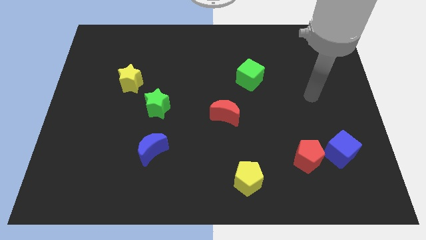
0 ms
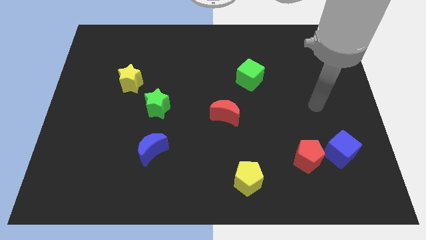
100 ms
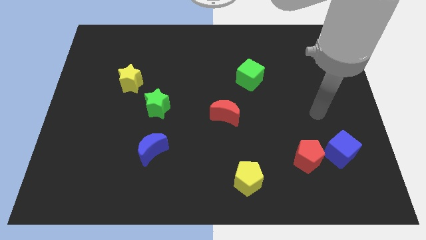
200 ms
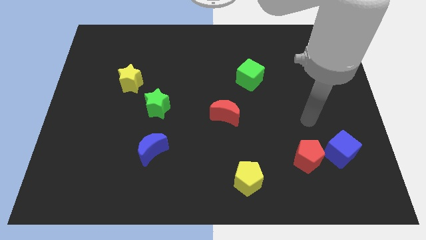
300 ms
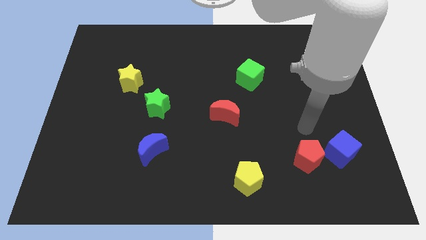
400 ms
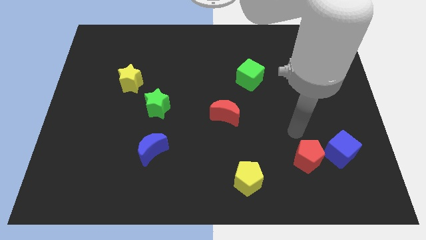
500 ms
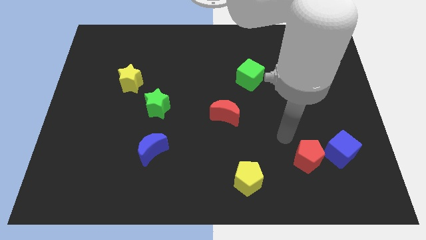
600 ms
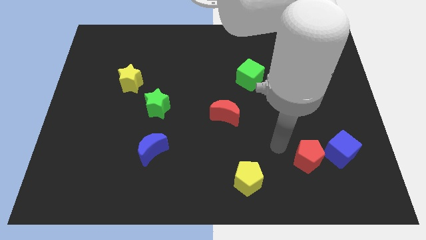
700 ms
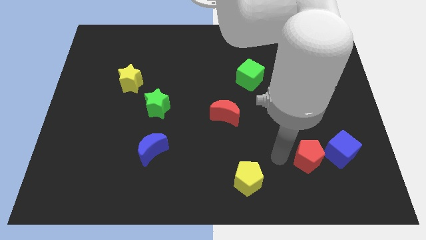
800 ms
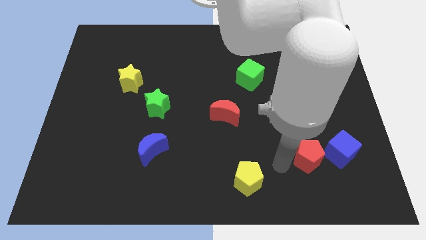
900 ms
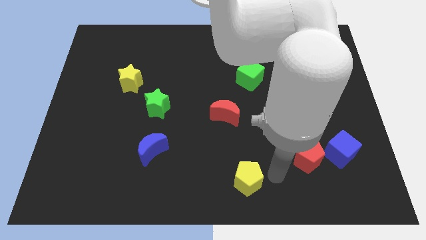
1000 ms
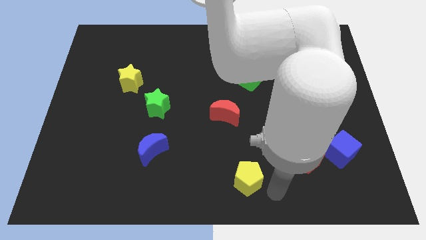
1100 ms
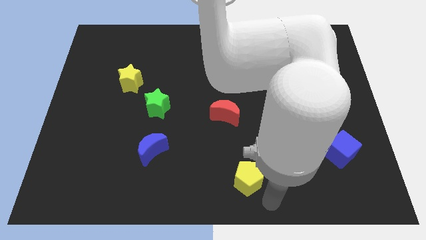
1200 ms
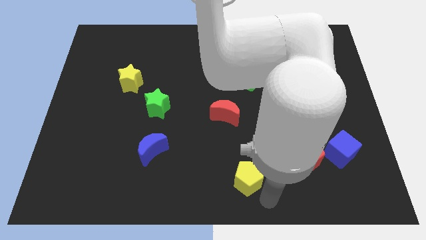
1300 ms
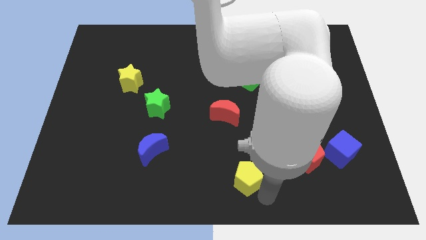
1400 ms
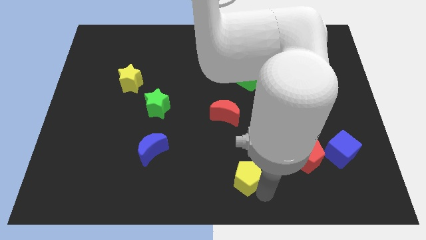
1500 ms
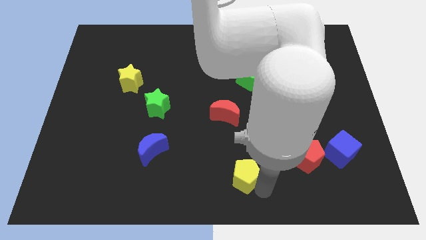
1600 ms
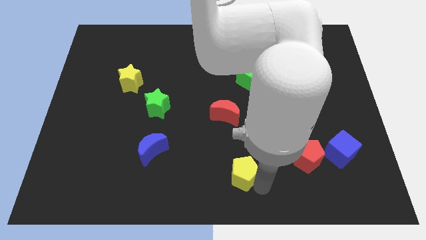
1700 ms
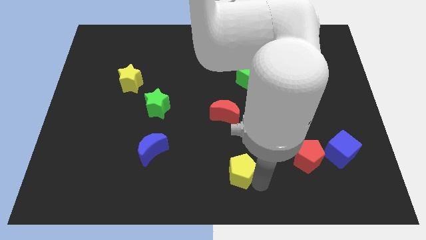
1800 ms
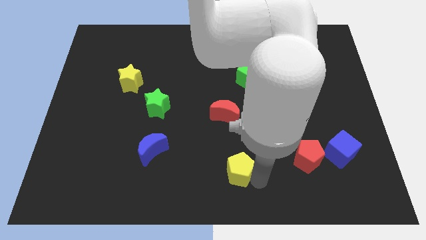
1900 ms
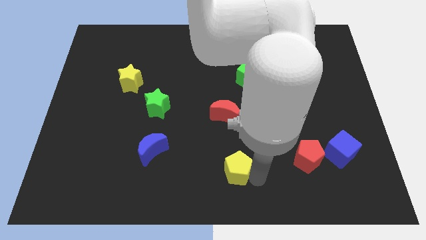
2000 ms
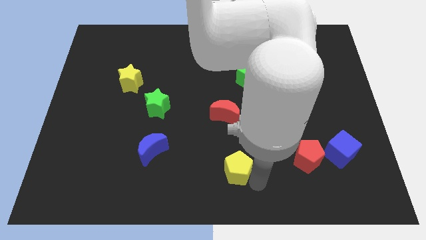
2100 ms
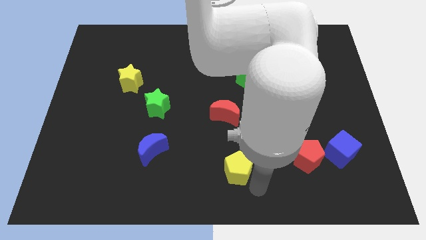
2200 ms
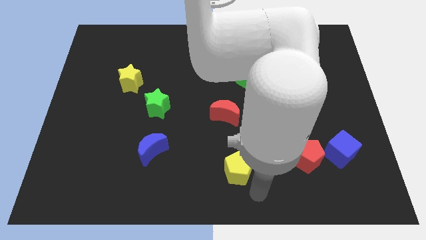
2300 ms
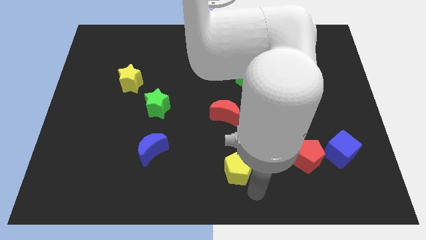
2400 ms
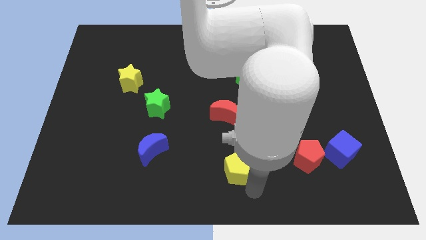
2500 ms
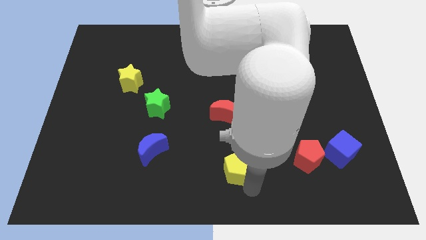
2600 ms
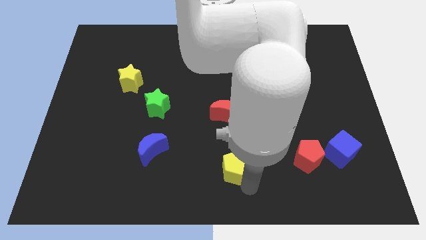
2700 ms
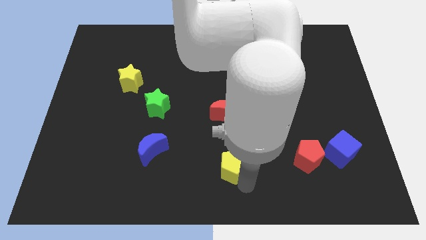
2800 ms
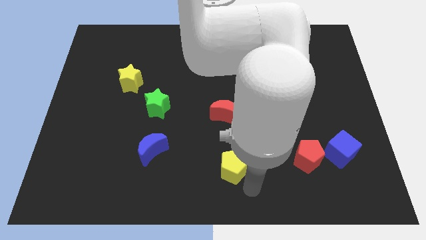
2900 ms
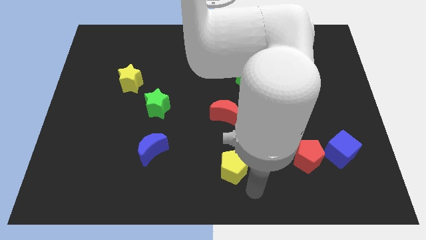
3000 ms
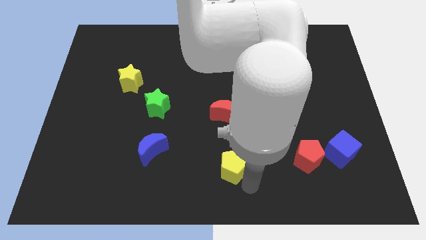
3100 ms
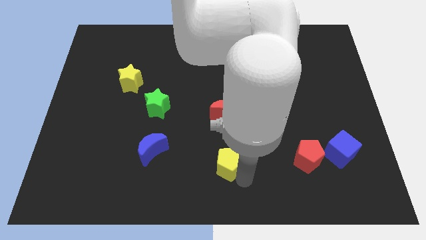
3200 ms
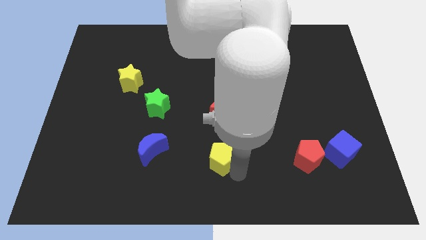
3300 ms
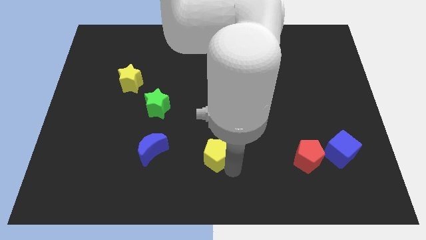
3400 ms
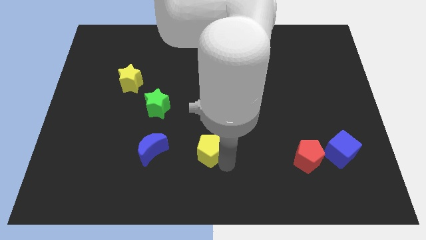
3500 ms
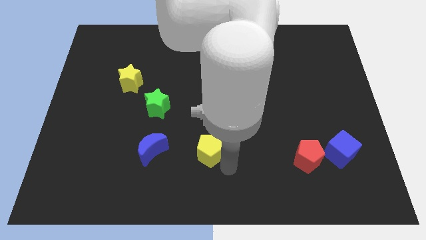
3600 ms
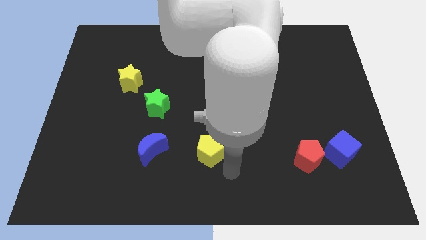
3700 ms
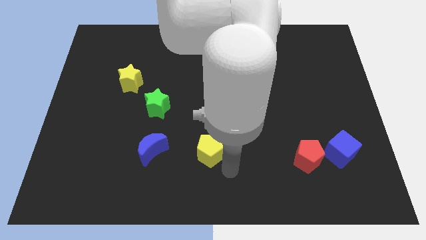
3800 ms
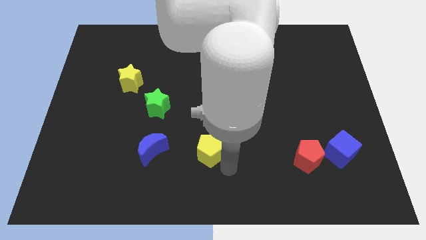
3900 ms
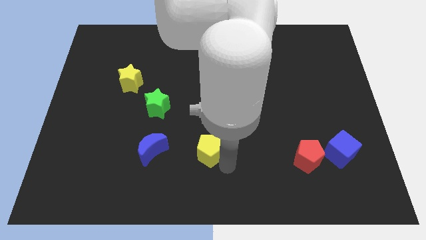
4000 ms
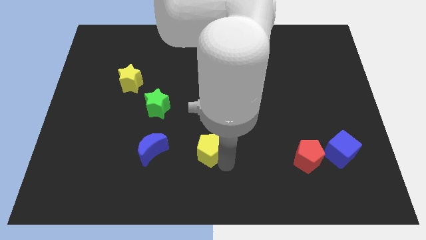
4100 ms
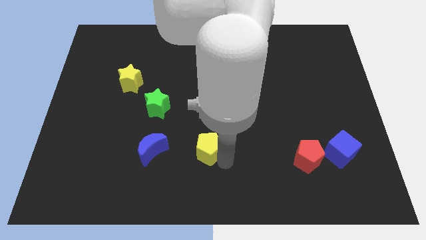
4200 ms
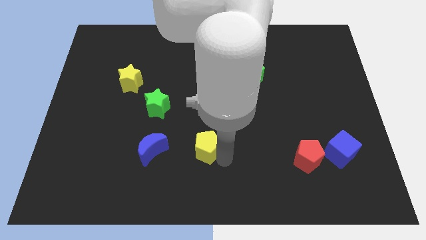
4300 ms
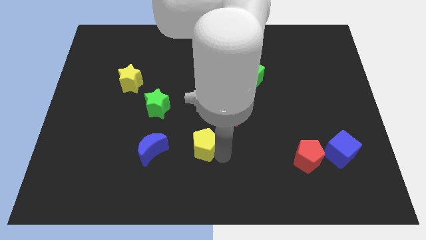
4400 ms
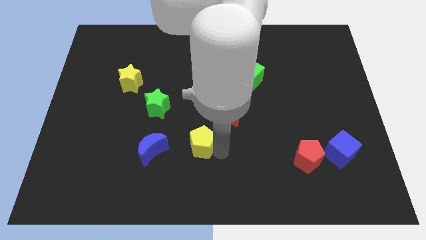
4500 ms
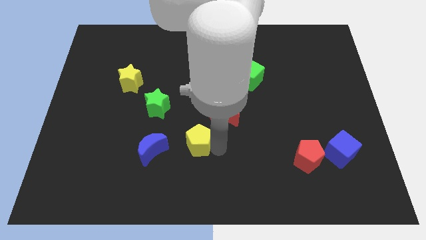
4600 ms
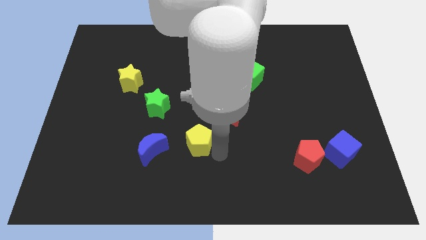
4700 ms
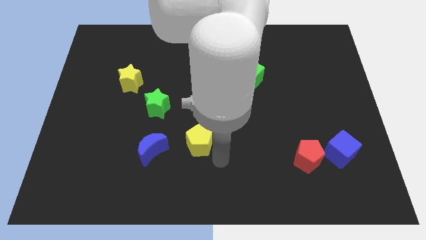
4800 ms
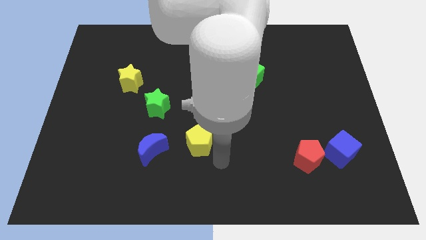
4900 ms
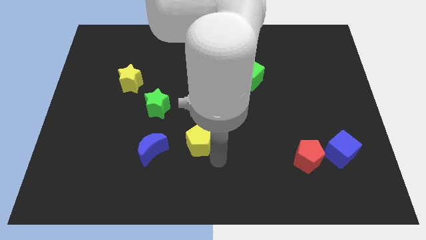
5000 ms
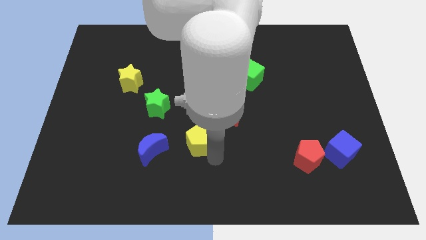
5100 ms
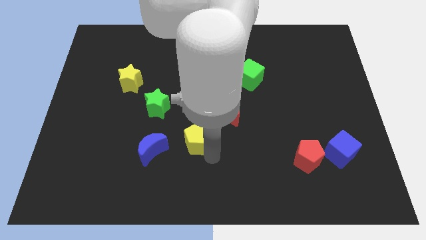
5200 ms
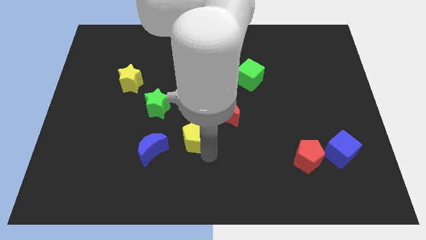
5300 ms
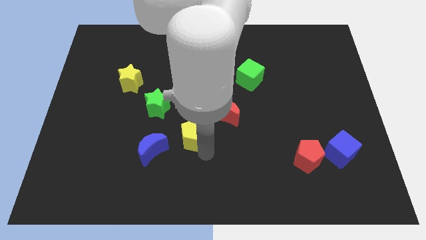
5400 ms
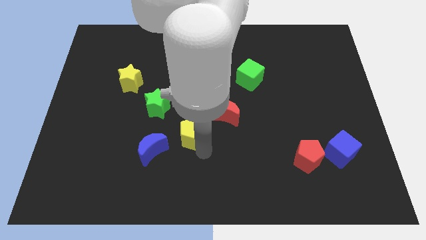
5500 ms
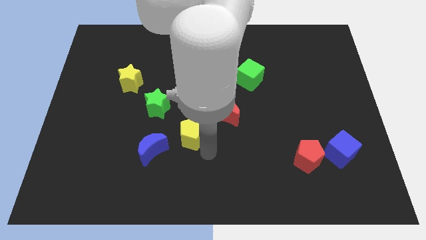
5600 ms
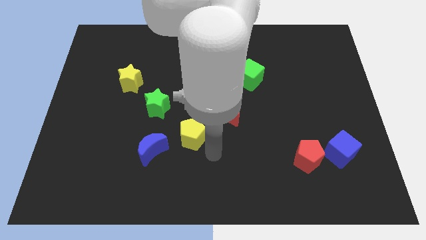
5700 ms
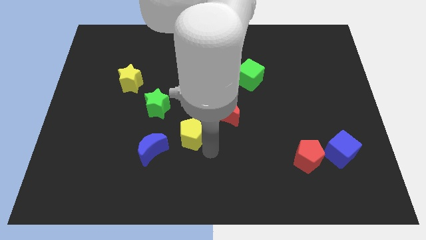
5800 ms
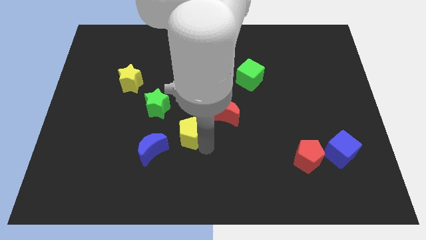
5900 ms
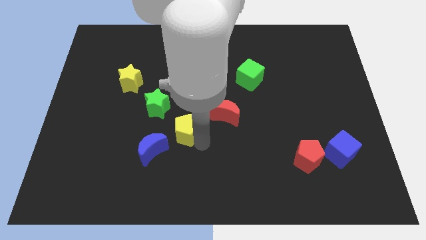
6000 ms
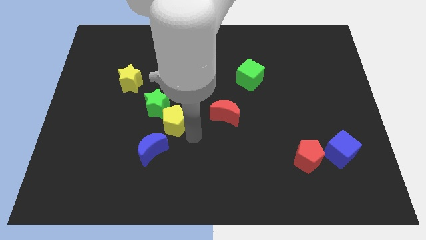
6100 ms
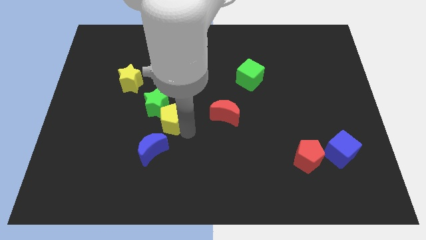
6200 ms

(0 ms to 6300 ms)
move the yellow pentagon to the green star

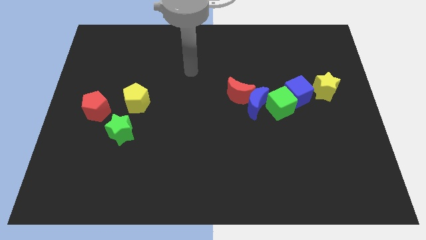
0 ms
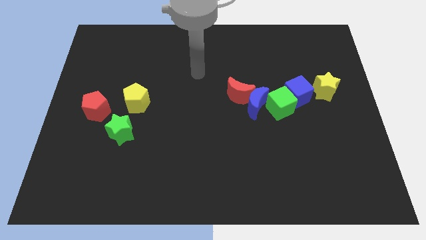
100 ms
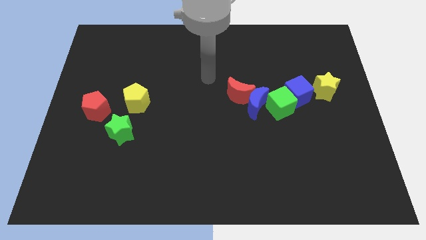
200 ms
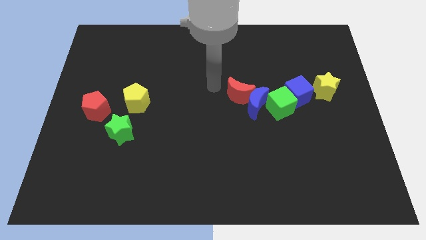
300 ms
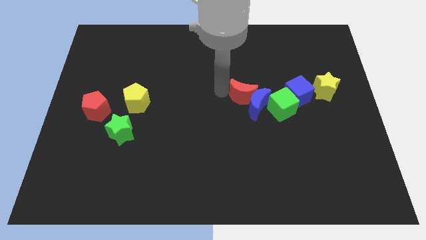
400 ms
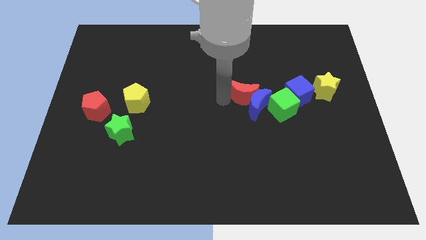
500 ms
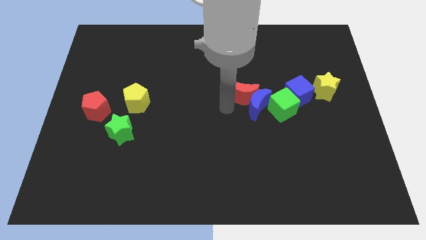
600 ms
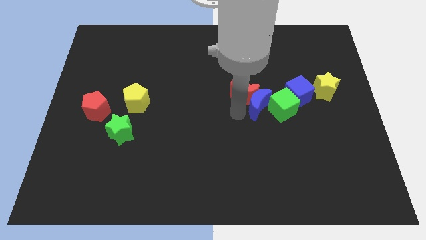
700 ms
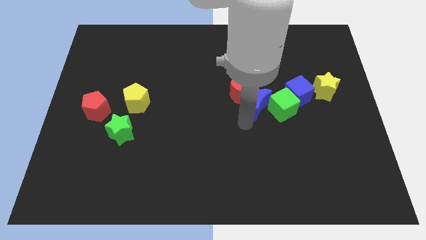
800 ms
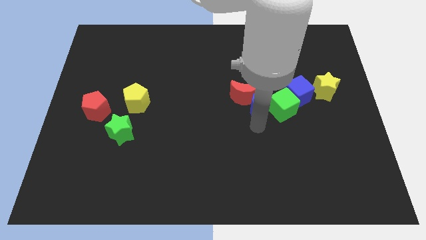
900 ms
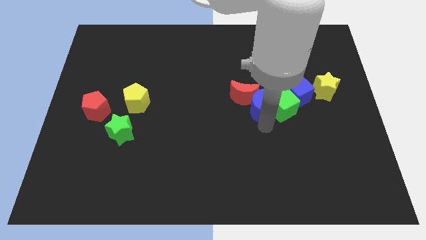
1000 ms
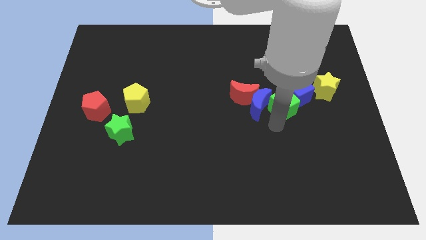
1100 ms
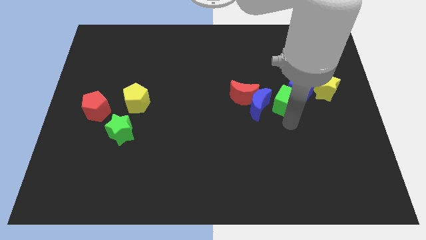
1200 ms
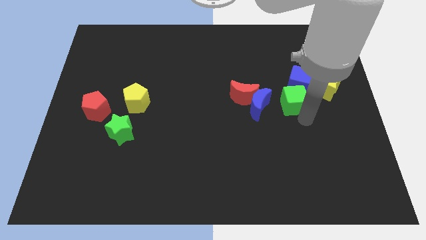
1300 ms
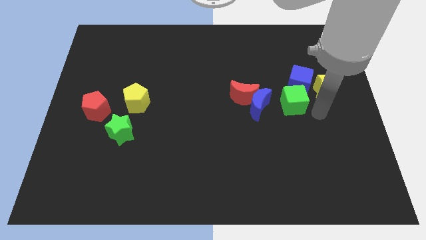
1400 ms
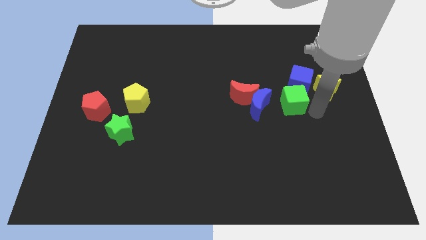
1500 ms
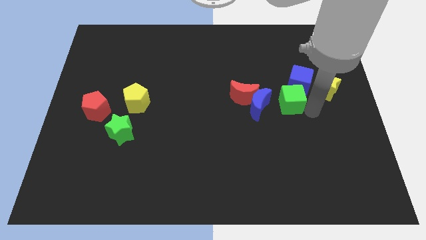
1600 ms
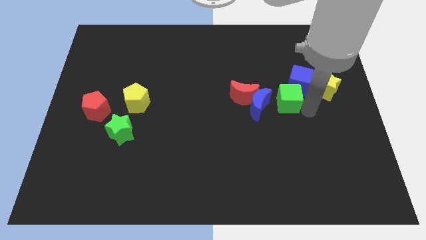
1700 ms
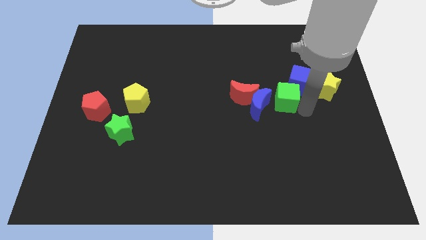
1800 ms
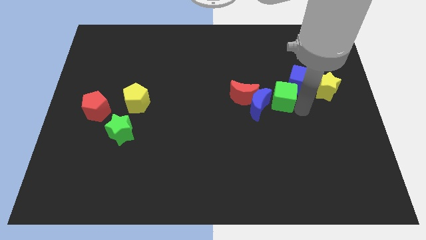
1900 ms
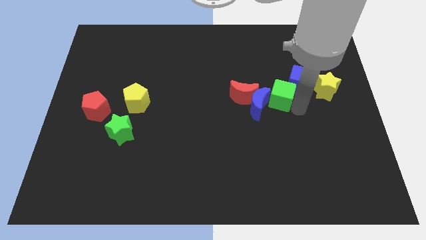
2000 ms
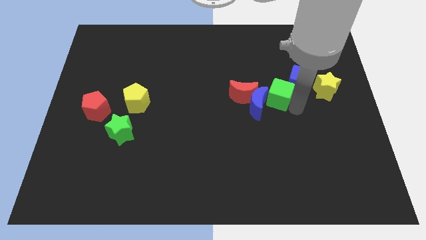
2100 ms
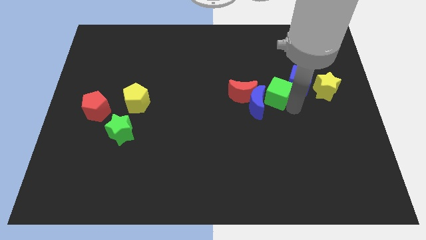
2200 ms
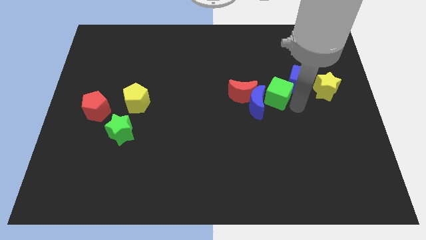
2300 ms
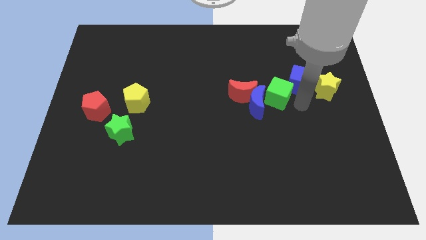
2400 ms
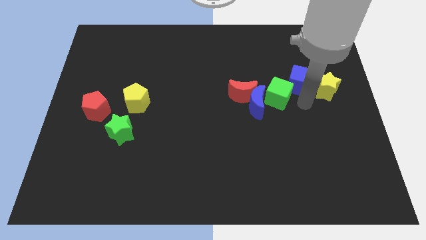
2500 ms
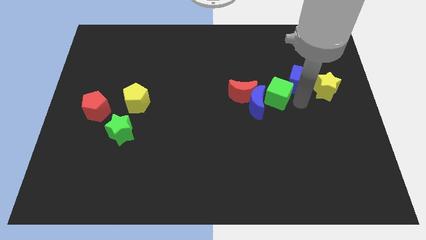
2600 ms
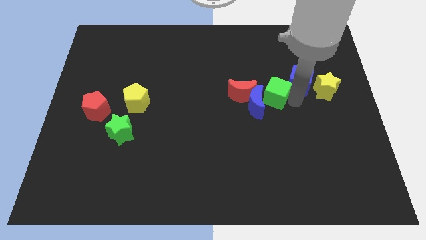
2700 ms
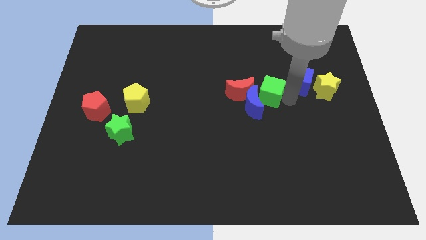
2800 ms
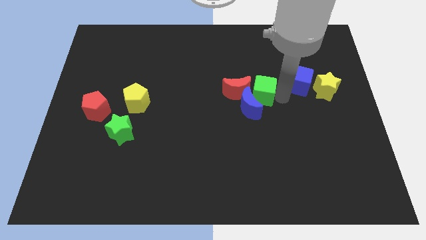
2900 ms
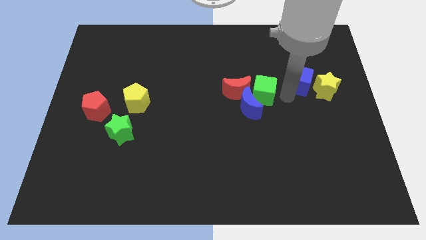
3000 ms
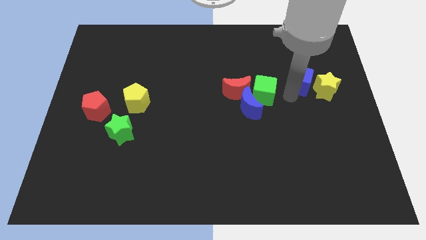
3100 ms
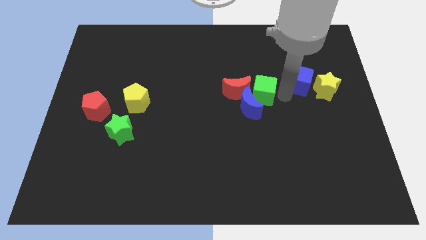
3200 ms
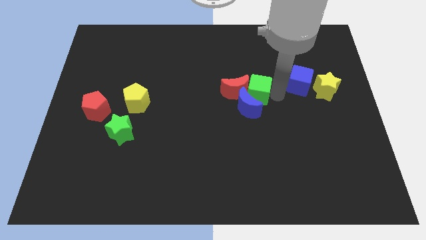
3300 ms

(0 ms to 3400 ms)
move the green cube next to the red moon
